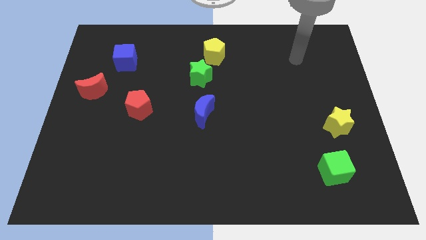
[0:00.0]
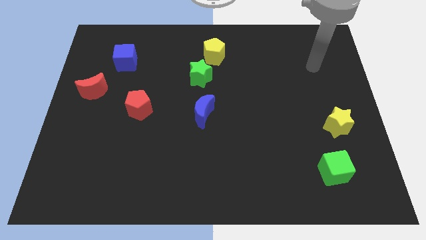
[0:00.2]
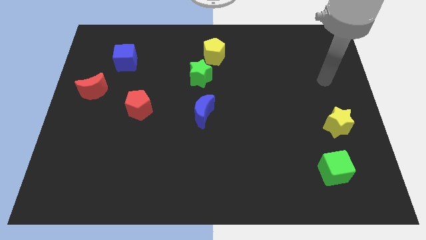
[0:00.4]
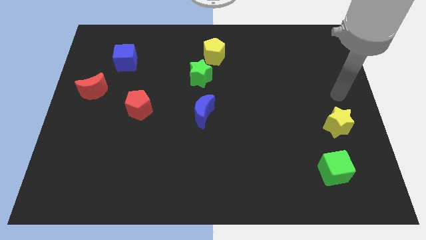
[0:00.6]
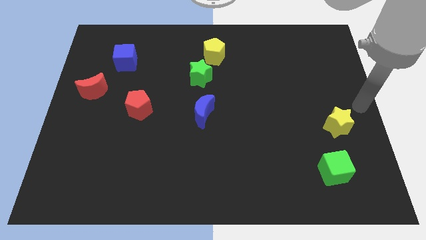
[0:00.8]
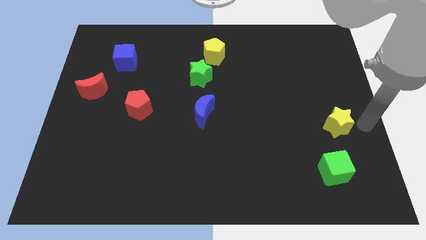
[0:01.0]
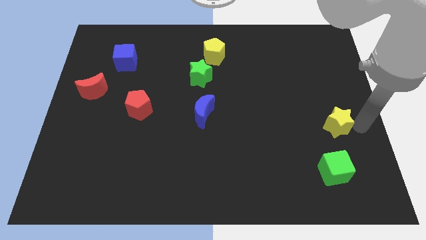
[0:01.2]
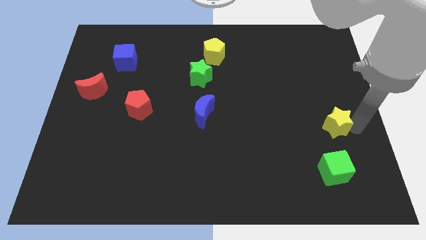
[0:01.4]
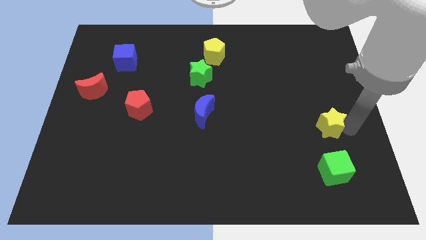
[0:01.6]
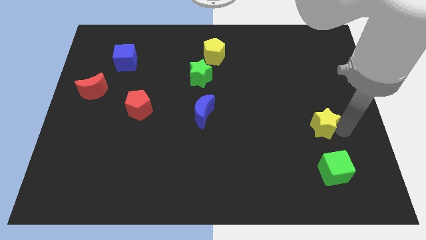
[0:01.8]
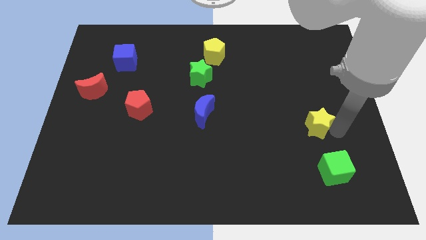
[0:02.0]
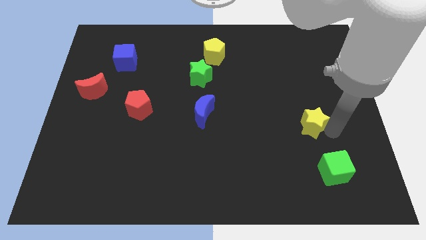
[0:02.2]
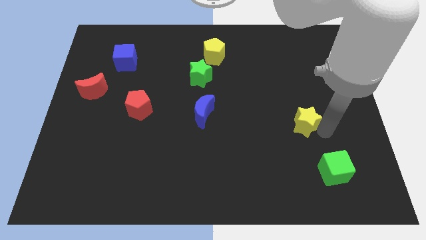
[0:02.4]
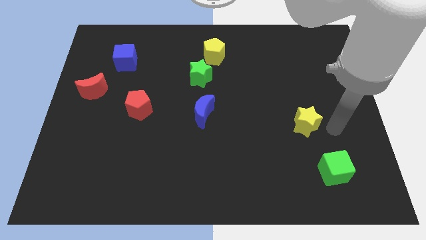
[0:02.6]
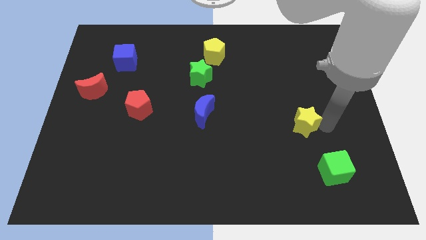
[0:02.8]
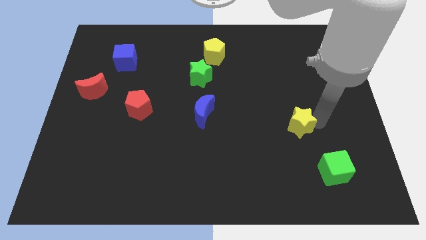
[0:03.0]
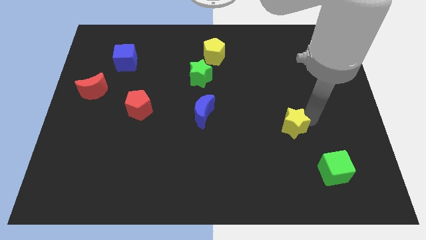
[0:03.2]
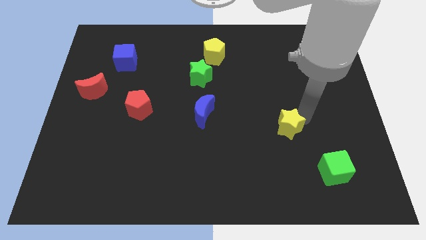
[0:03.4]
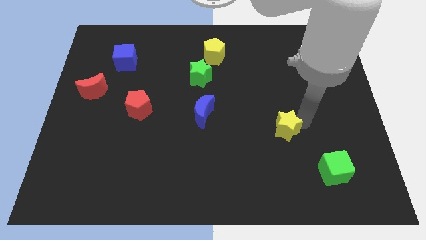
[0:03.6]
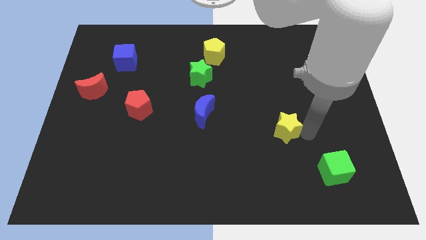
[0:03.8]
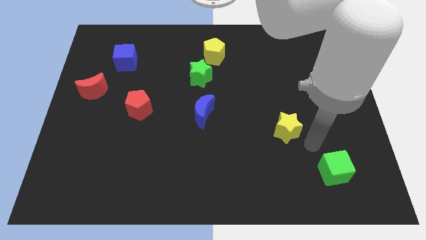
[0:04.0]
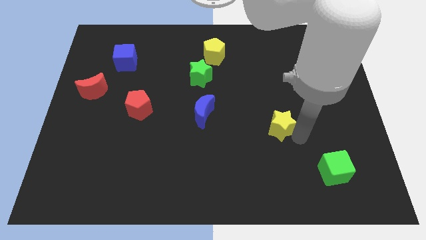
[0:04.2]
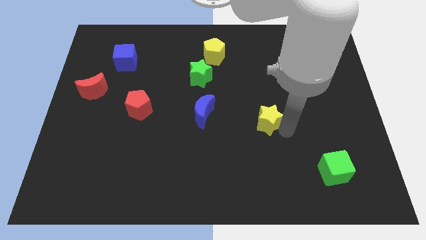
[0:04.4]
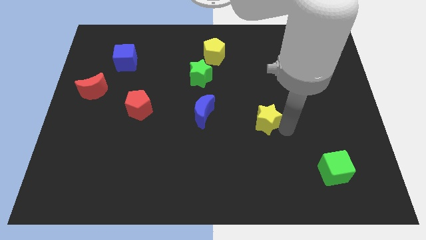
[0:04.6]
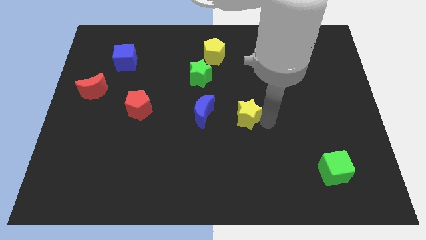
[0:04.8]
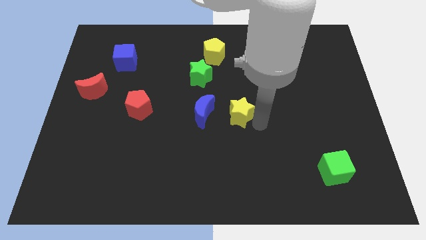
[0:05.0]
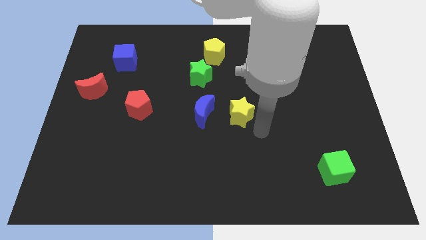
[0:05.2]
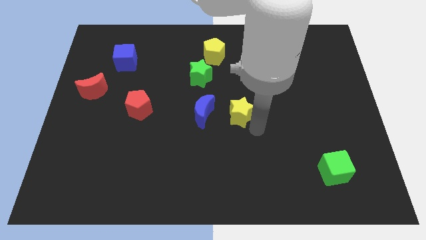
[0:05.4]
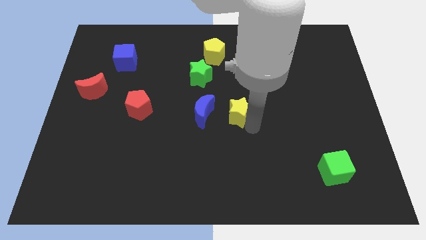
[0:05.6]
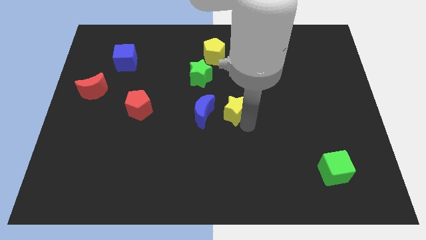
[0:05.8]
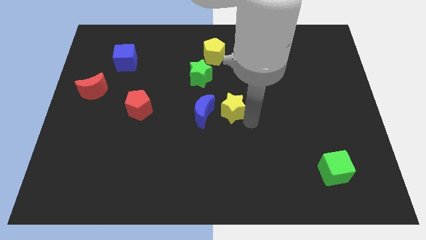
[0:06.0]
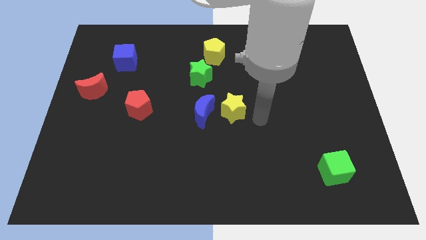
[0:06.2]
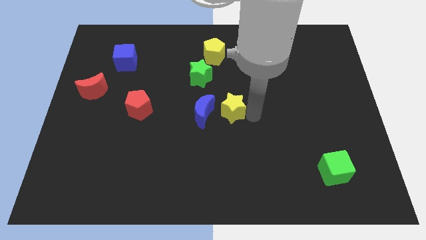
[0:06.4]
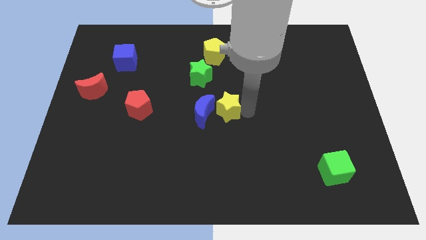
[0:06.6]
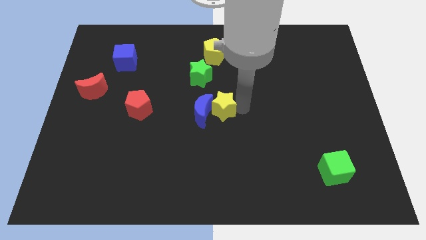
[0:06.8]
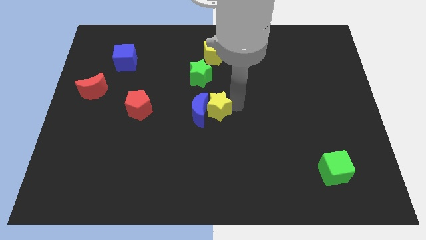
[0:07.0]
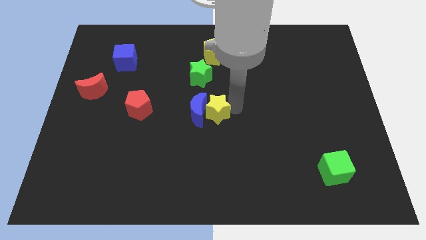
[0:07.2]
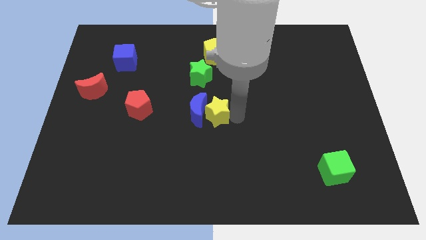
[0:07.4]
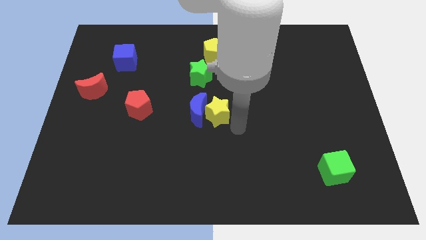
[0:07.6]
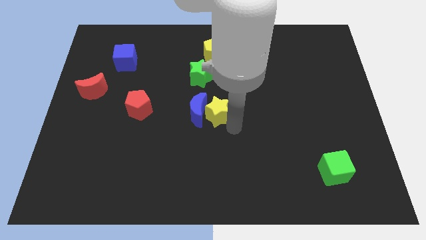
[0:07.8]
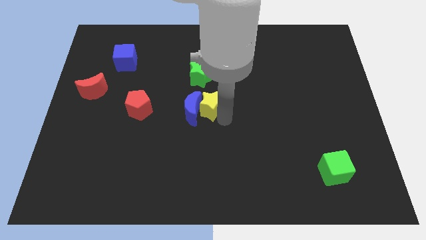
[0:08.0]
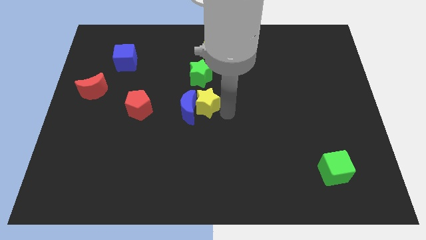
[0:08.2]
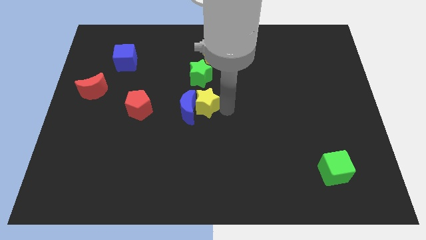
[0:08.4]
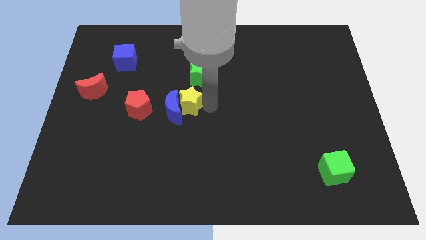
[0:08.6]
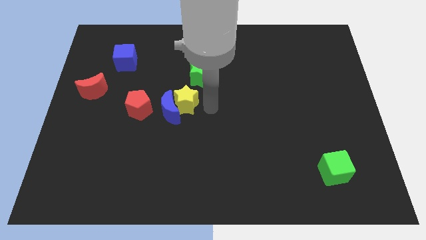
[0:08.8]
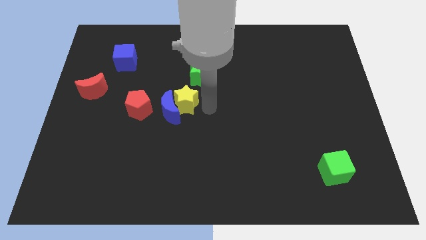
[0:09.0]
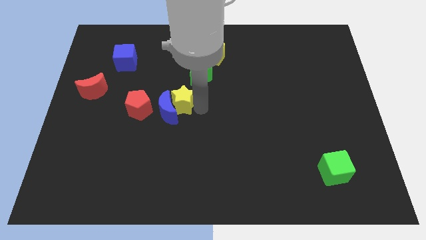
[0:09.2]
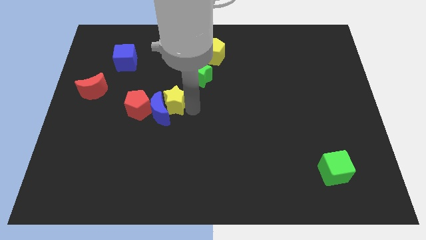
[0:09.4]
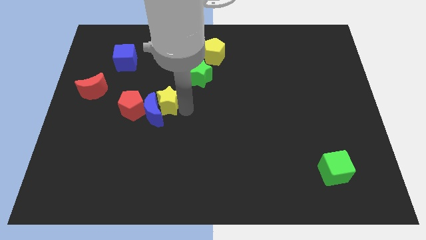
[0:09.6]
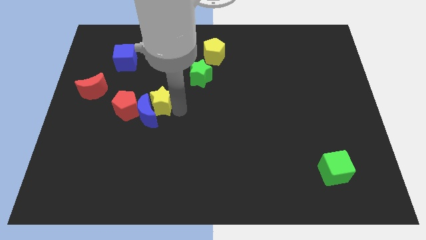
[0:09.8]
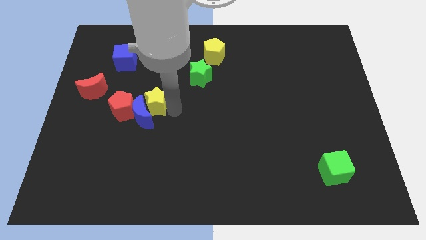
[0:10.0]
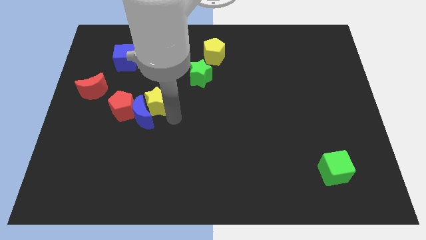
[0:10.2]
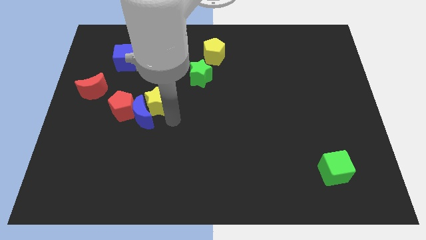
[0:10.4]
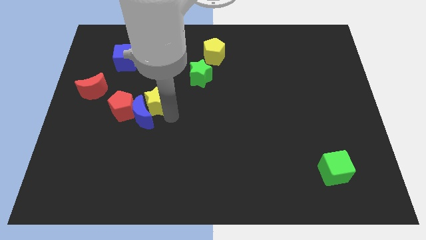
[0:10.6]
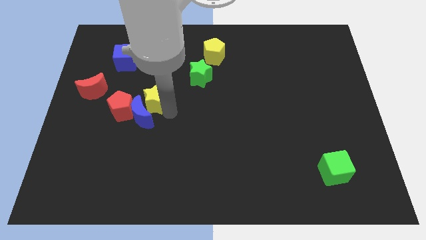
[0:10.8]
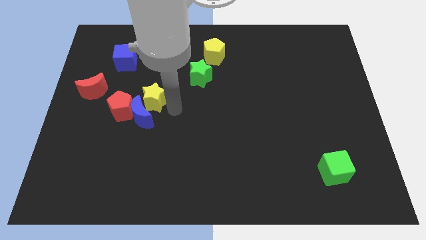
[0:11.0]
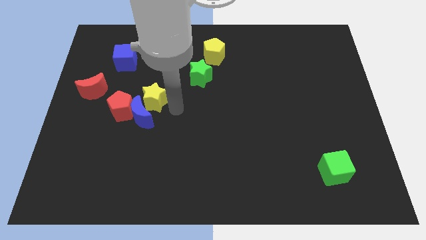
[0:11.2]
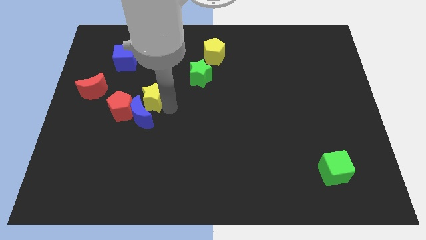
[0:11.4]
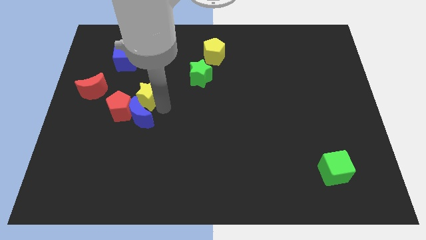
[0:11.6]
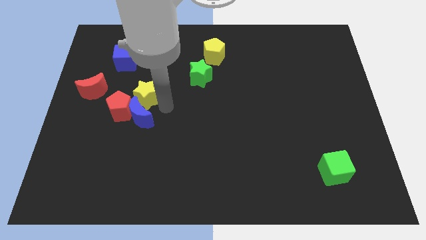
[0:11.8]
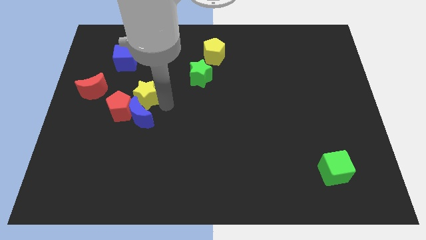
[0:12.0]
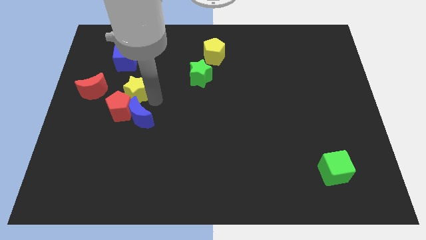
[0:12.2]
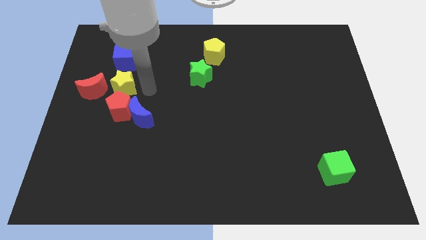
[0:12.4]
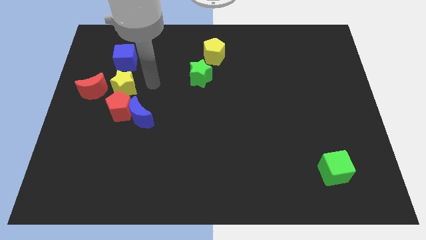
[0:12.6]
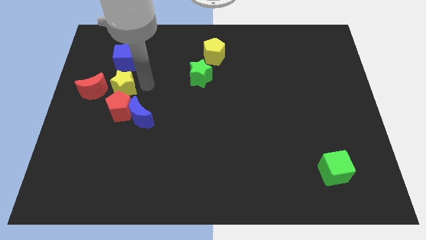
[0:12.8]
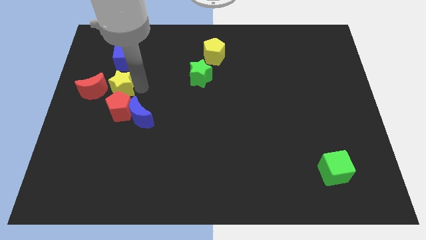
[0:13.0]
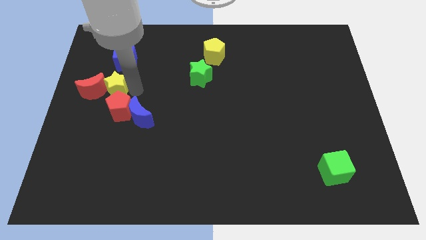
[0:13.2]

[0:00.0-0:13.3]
slide the yellow star towards the red moon

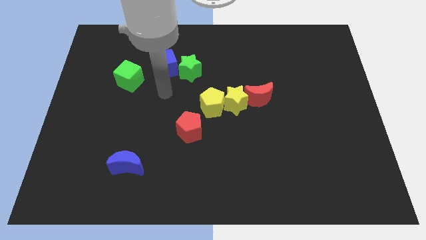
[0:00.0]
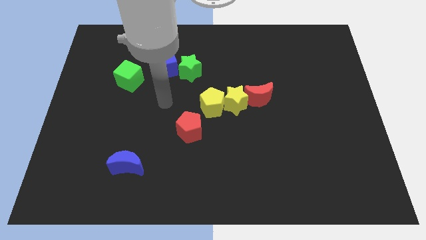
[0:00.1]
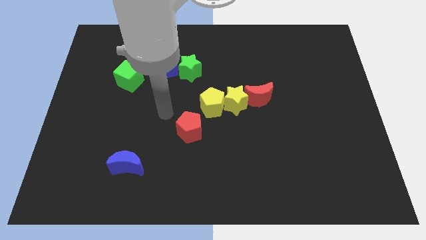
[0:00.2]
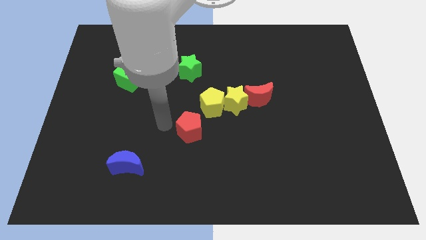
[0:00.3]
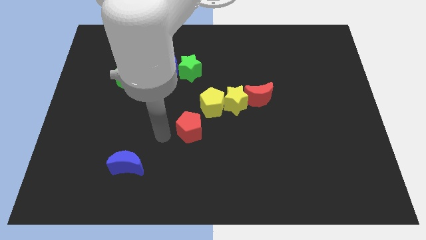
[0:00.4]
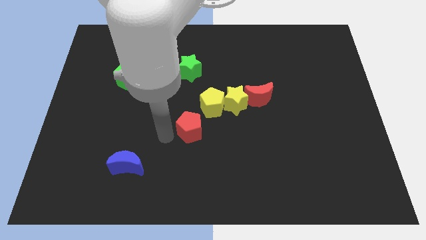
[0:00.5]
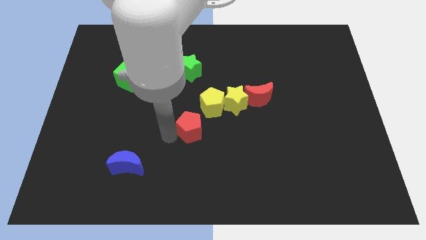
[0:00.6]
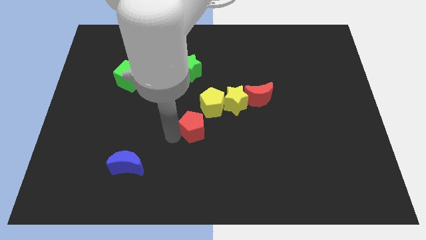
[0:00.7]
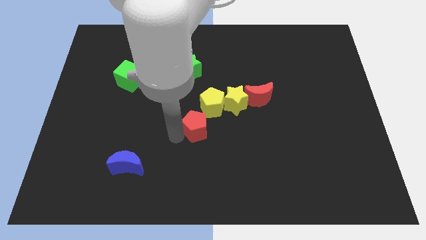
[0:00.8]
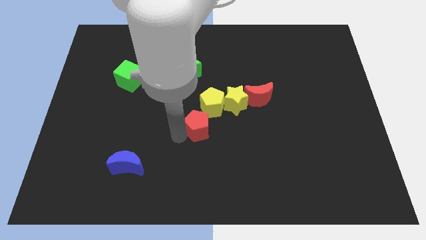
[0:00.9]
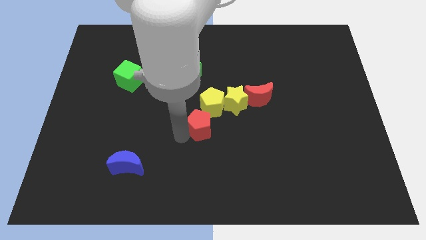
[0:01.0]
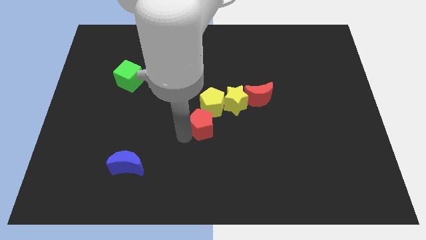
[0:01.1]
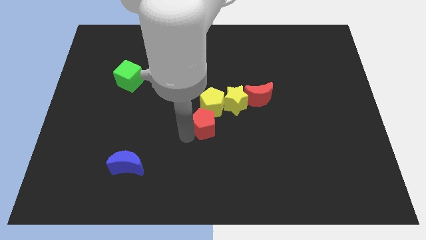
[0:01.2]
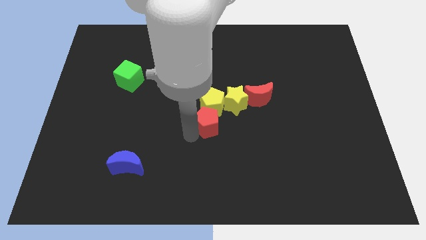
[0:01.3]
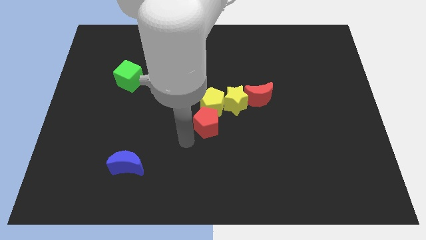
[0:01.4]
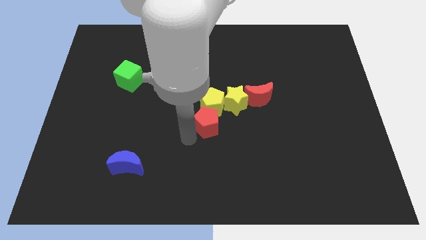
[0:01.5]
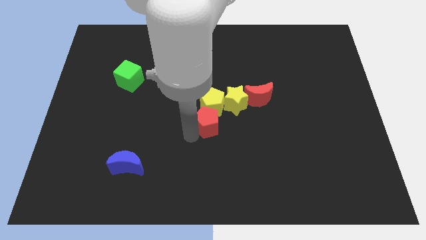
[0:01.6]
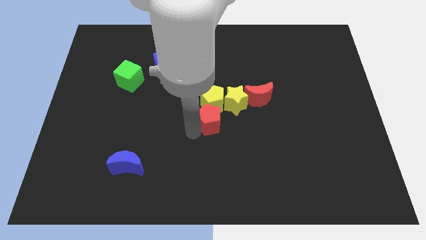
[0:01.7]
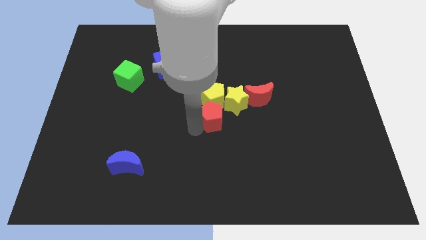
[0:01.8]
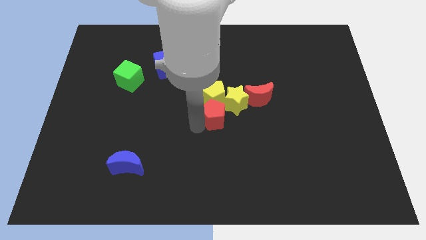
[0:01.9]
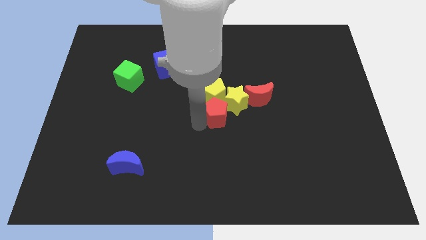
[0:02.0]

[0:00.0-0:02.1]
push the red pentagon to the yellow star
